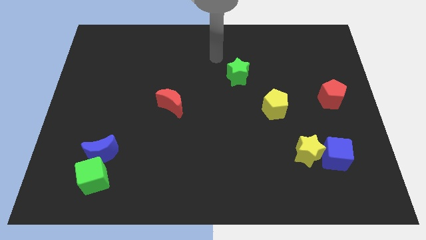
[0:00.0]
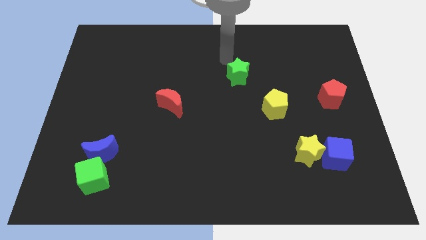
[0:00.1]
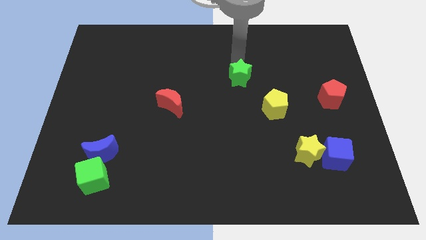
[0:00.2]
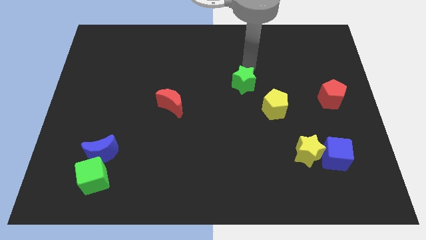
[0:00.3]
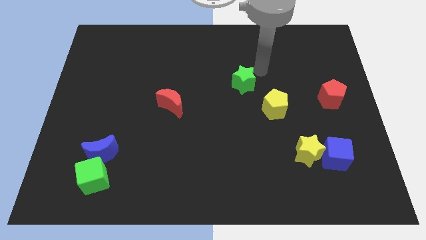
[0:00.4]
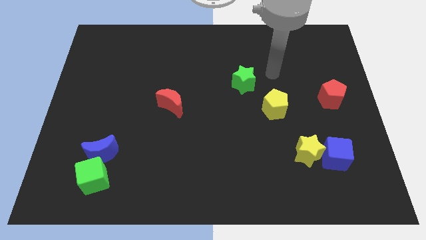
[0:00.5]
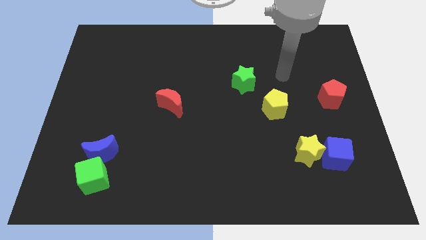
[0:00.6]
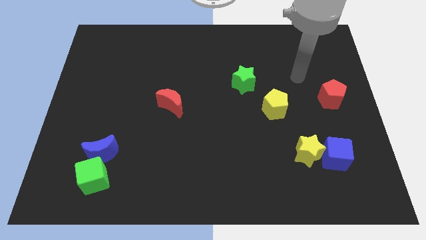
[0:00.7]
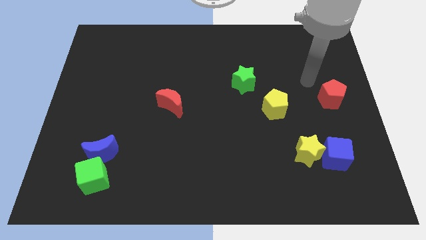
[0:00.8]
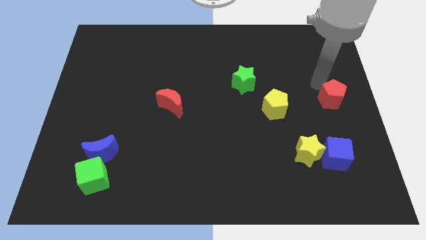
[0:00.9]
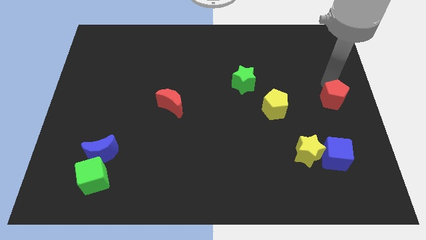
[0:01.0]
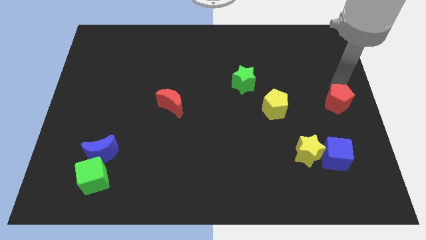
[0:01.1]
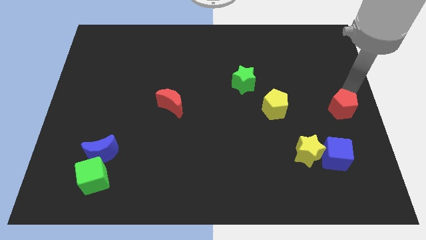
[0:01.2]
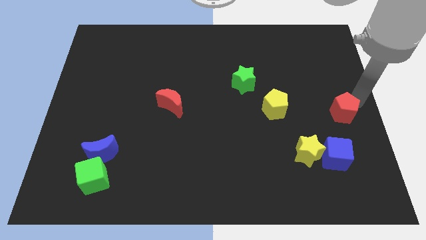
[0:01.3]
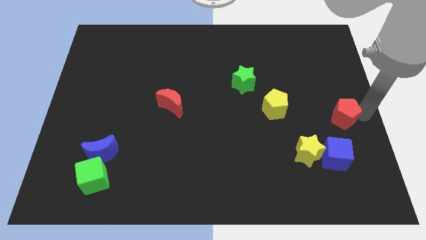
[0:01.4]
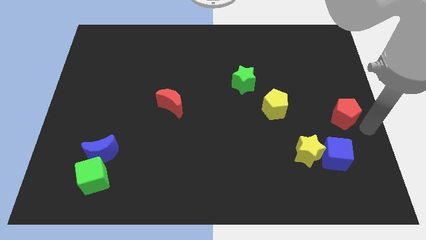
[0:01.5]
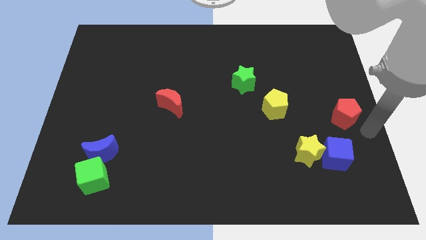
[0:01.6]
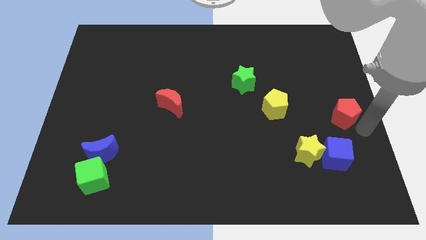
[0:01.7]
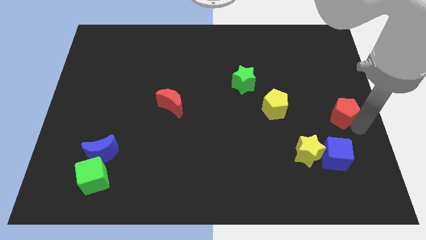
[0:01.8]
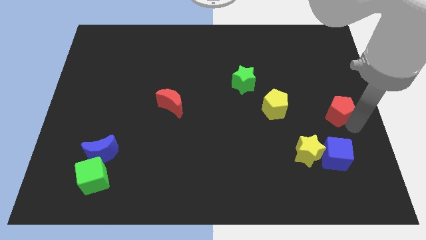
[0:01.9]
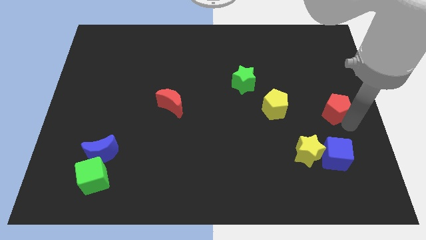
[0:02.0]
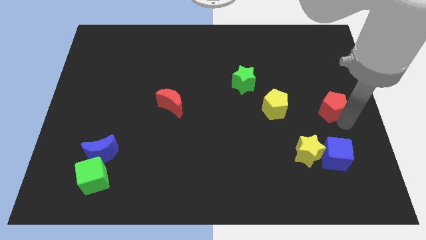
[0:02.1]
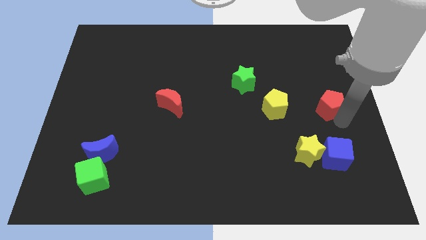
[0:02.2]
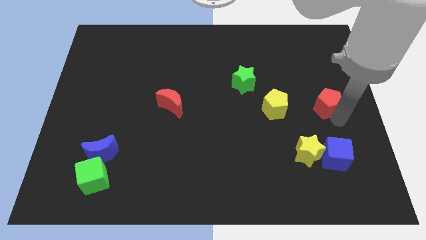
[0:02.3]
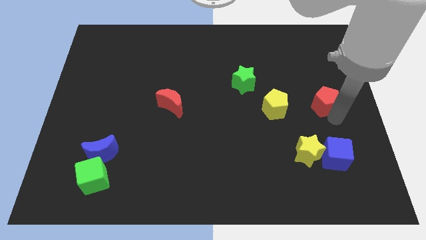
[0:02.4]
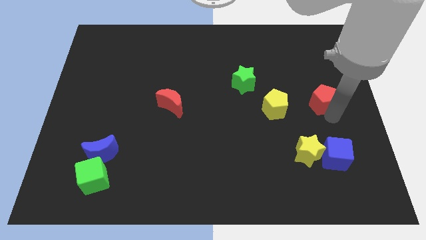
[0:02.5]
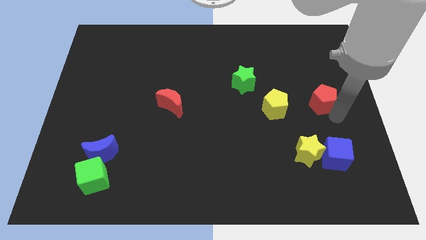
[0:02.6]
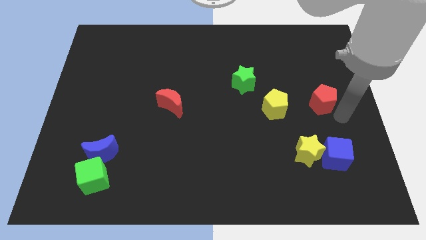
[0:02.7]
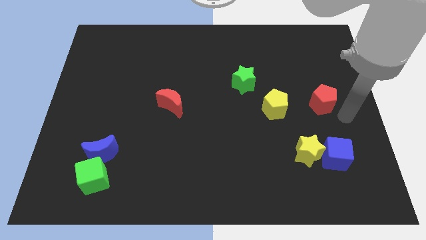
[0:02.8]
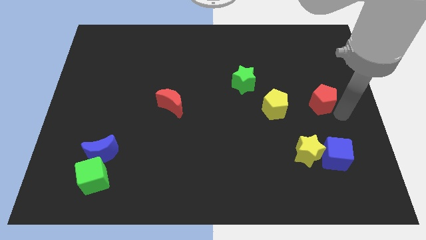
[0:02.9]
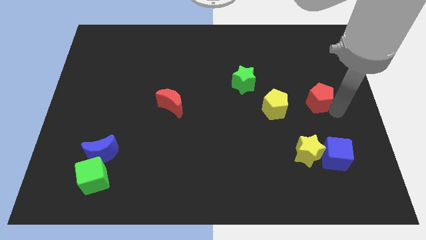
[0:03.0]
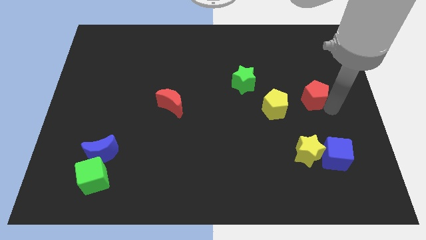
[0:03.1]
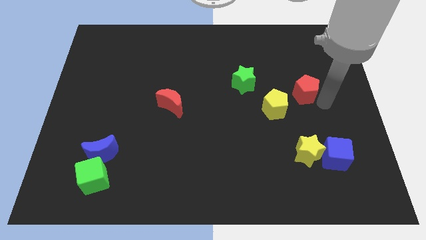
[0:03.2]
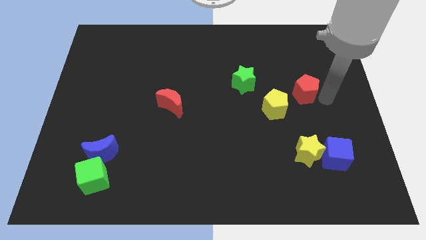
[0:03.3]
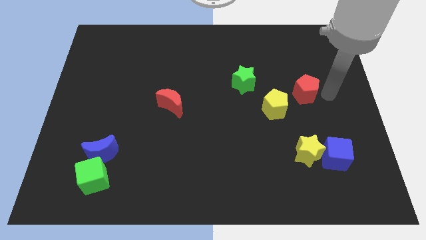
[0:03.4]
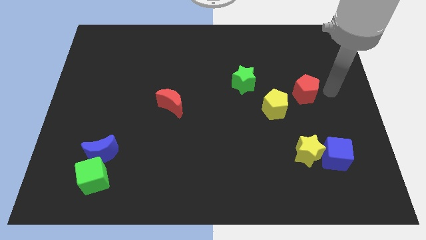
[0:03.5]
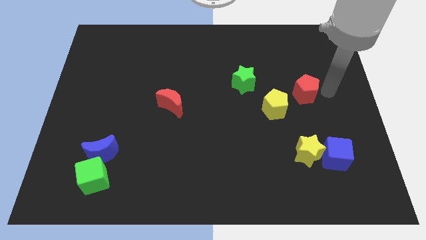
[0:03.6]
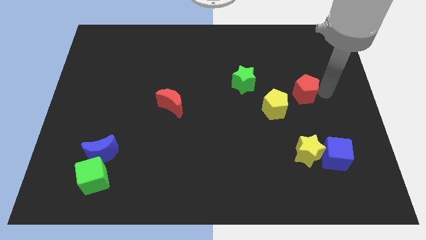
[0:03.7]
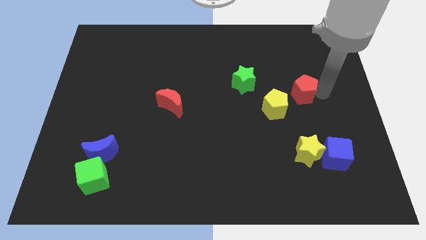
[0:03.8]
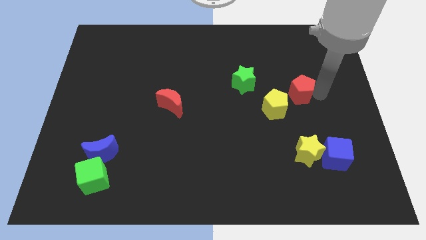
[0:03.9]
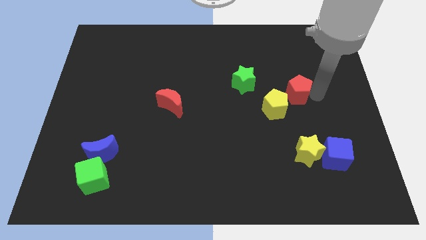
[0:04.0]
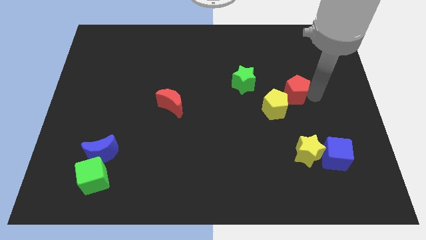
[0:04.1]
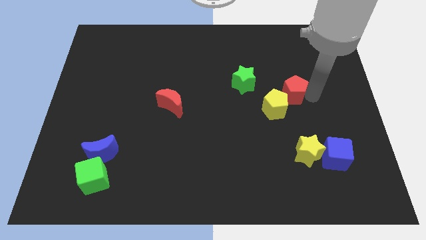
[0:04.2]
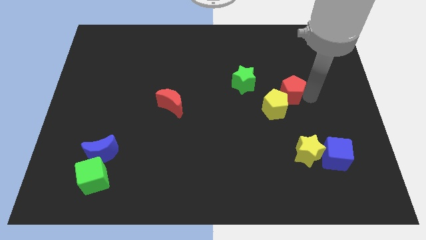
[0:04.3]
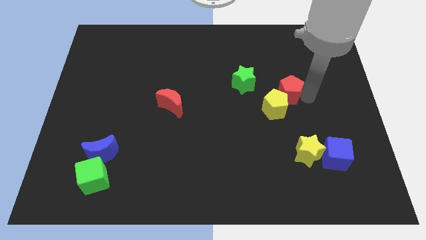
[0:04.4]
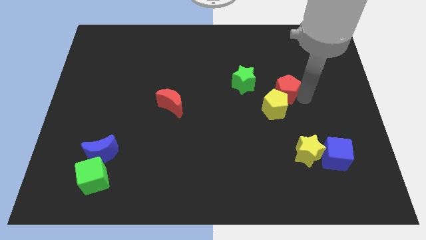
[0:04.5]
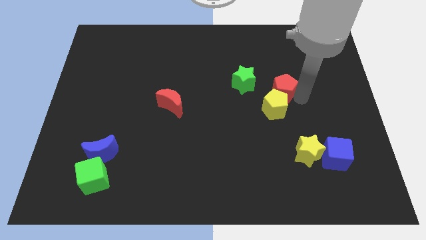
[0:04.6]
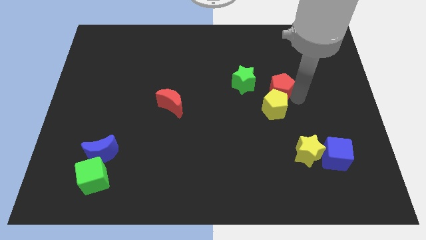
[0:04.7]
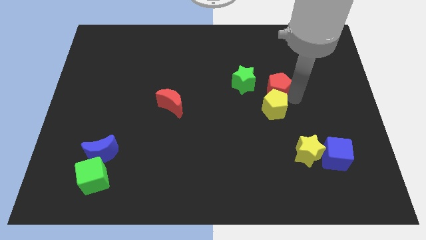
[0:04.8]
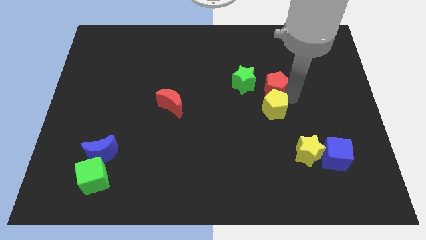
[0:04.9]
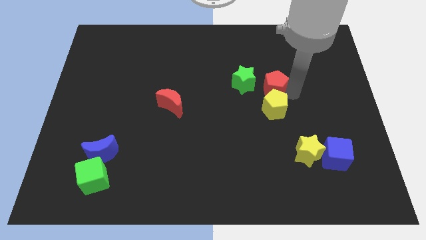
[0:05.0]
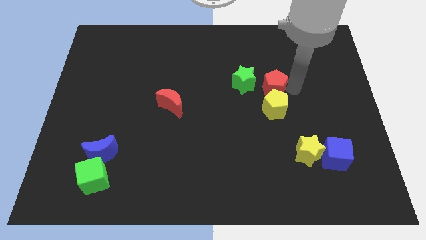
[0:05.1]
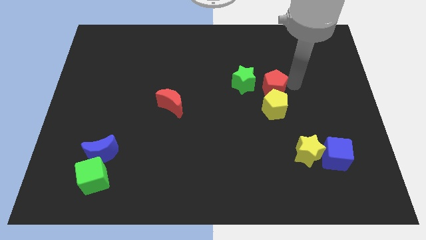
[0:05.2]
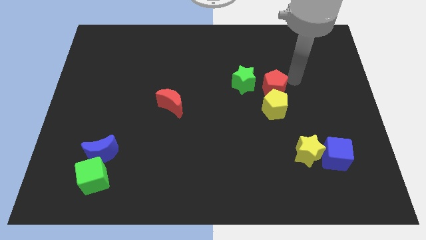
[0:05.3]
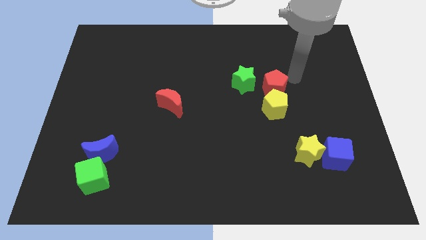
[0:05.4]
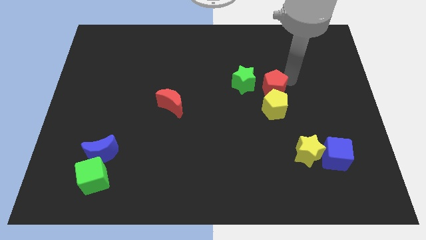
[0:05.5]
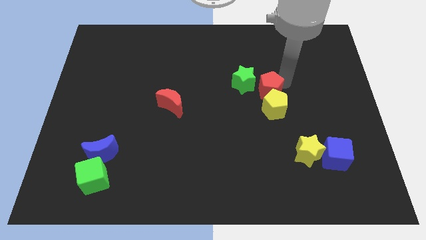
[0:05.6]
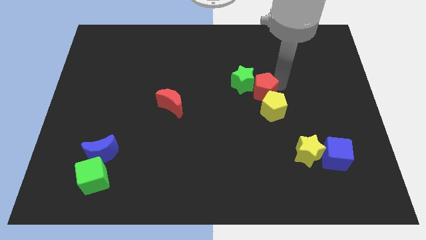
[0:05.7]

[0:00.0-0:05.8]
move the red pentagon to the center

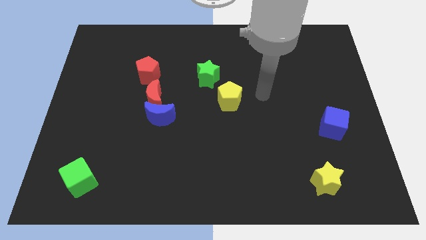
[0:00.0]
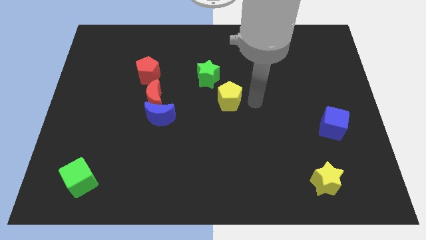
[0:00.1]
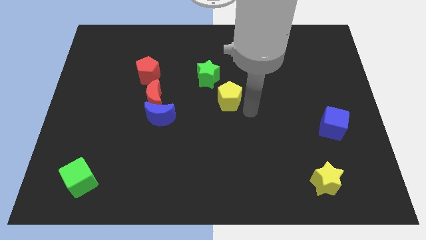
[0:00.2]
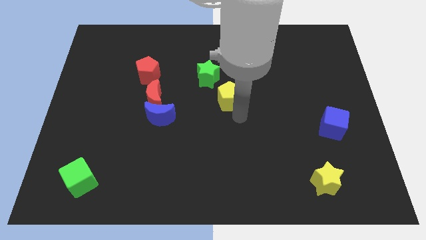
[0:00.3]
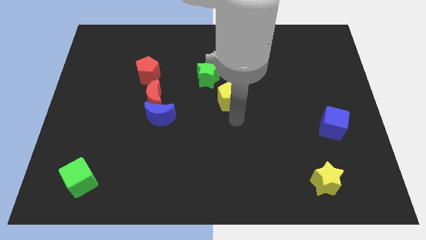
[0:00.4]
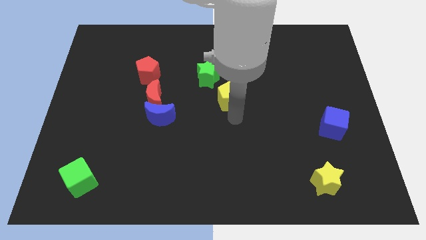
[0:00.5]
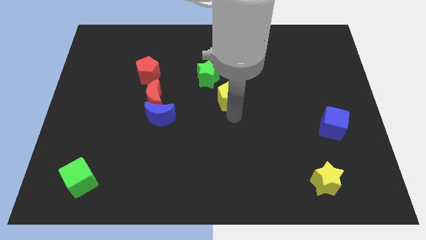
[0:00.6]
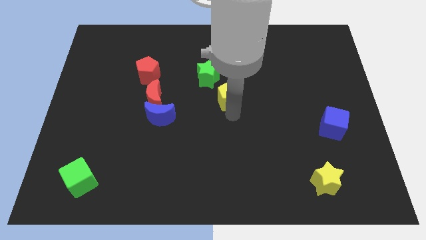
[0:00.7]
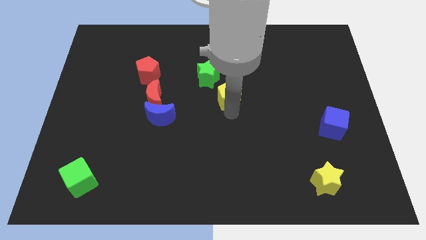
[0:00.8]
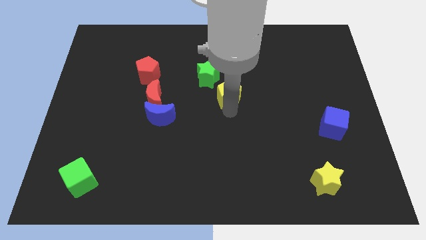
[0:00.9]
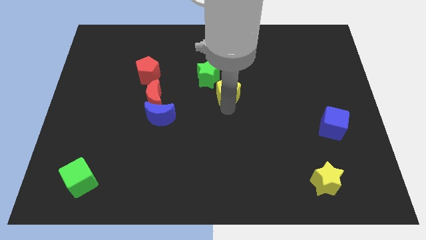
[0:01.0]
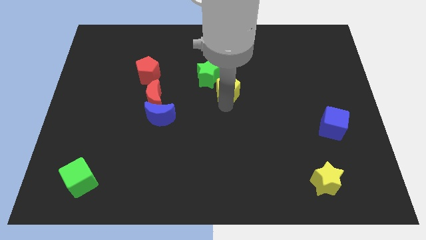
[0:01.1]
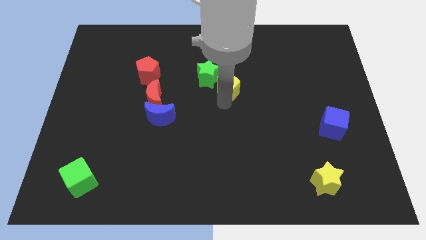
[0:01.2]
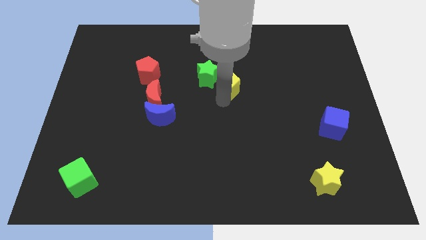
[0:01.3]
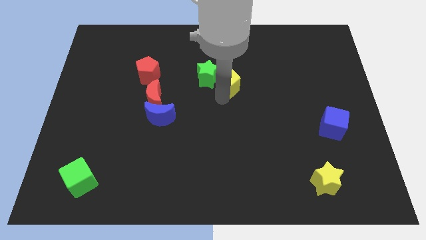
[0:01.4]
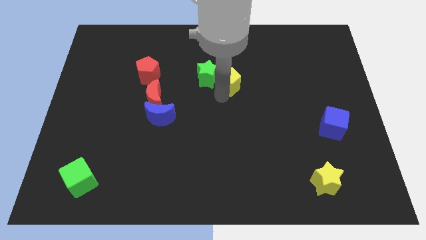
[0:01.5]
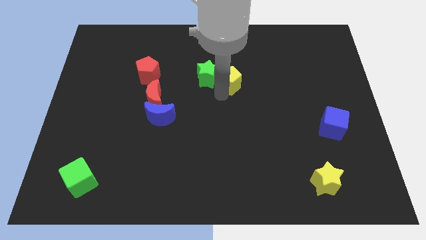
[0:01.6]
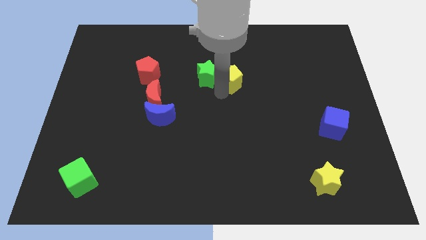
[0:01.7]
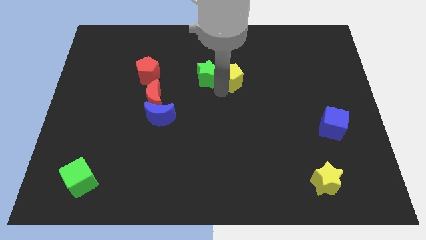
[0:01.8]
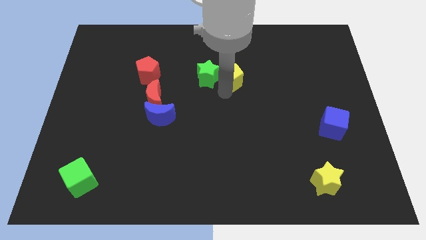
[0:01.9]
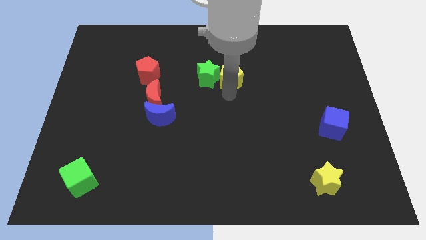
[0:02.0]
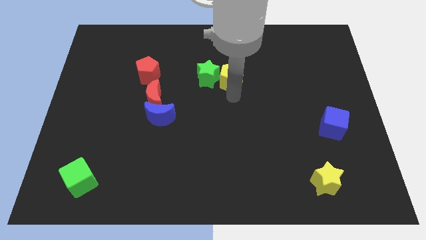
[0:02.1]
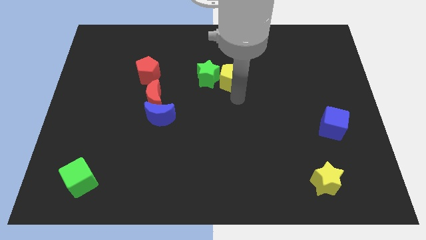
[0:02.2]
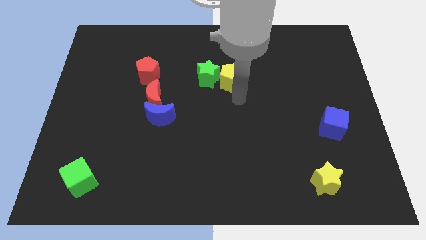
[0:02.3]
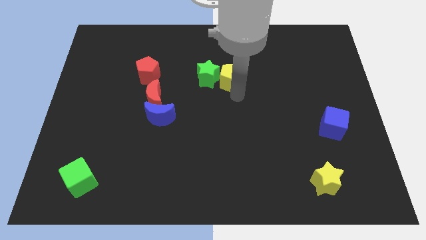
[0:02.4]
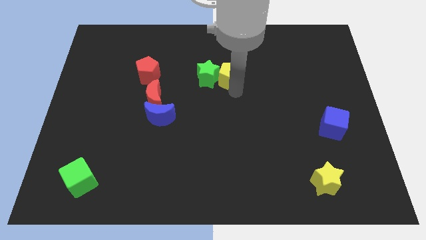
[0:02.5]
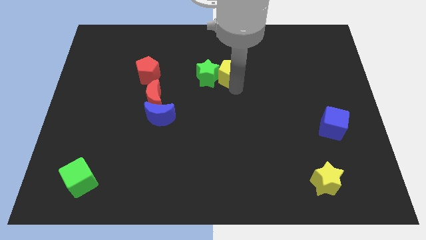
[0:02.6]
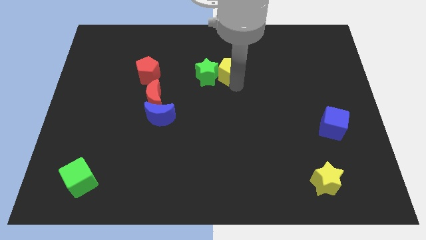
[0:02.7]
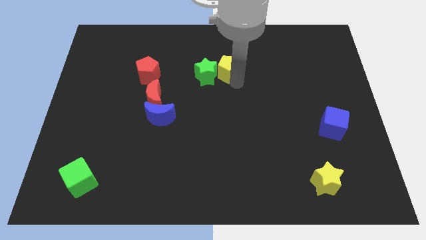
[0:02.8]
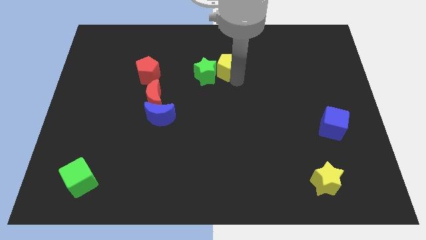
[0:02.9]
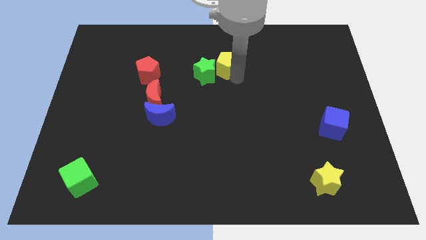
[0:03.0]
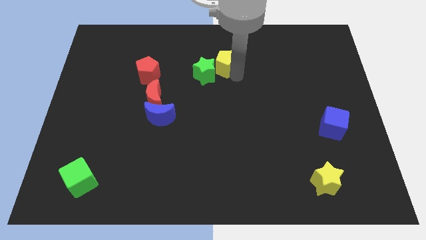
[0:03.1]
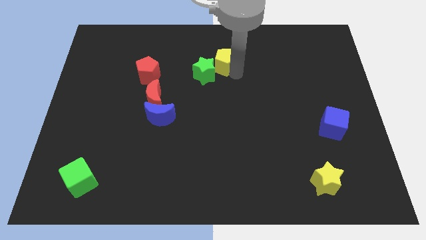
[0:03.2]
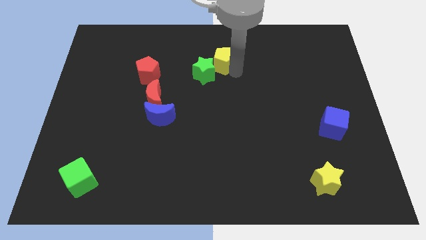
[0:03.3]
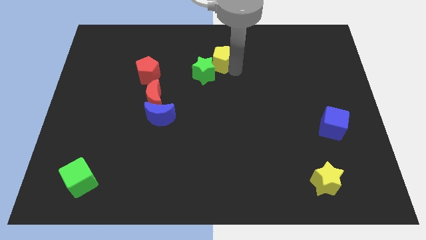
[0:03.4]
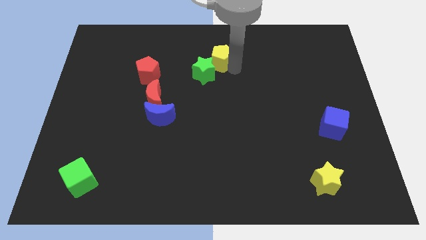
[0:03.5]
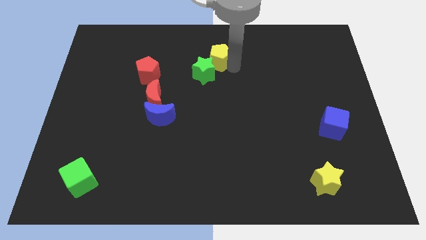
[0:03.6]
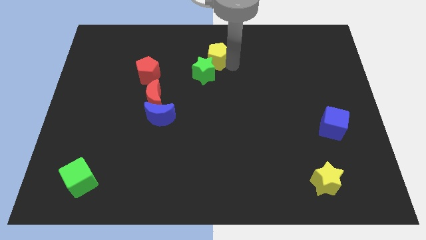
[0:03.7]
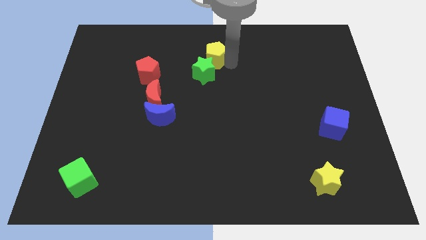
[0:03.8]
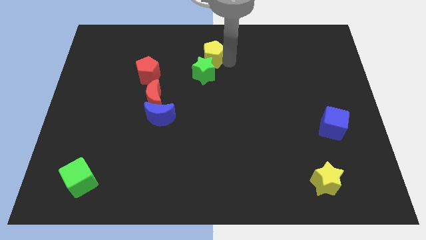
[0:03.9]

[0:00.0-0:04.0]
slide the yellow pentagon to the towards your base
